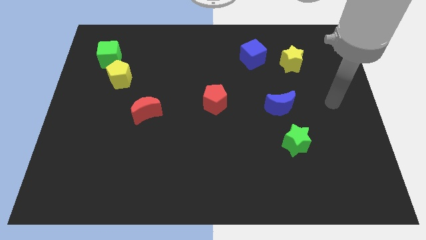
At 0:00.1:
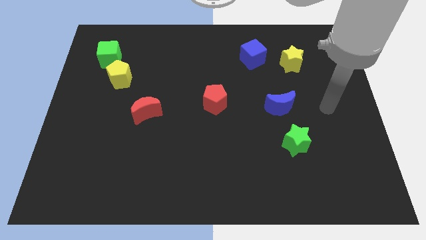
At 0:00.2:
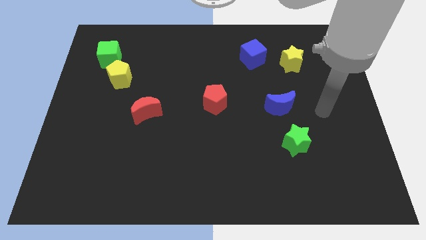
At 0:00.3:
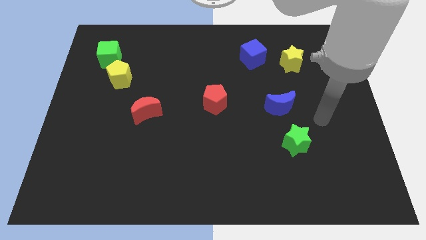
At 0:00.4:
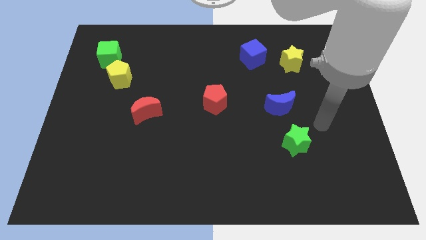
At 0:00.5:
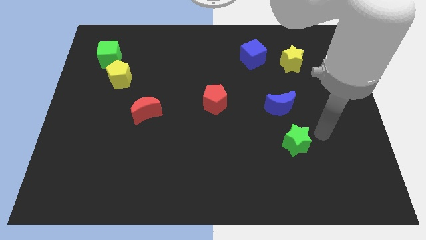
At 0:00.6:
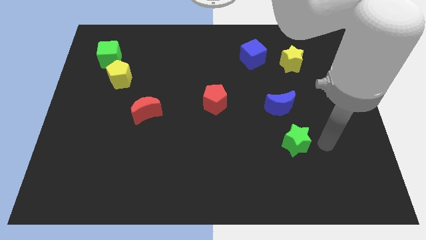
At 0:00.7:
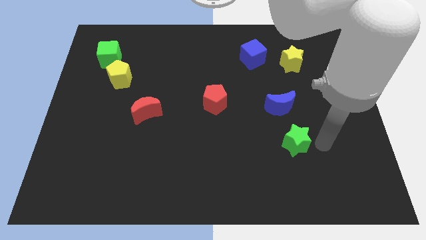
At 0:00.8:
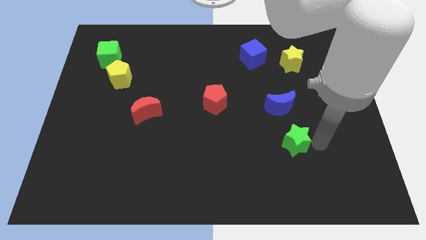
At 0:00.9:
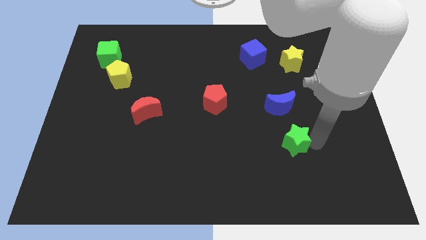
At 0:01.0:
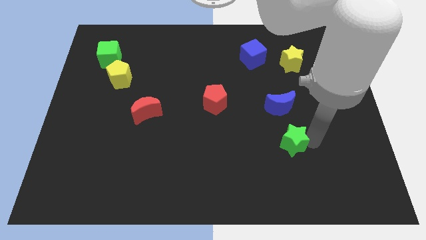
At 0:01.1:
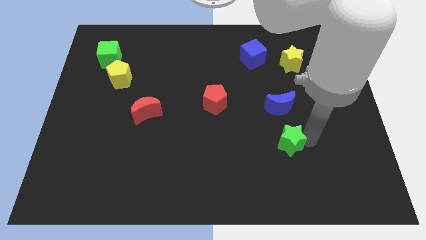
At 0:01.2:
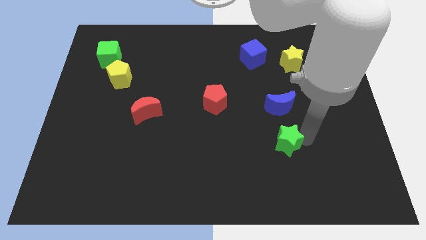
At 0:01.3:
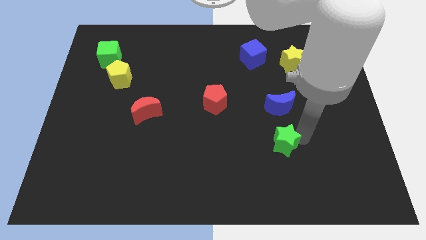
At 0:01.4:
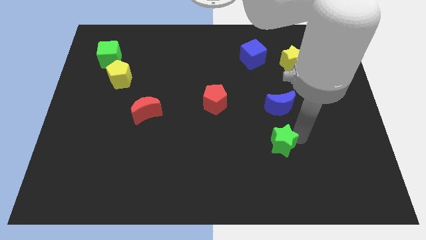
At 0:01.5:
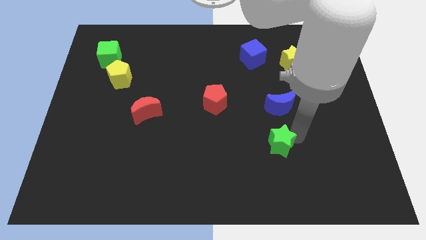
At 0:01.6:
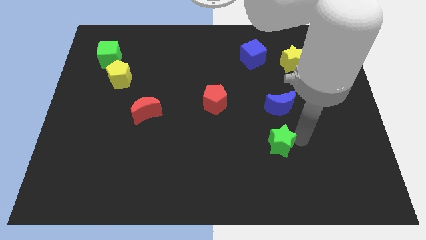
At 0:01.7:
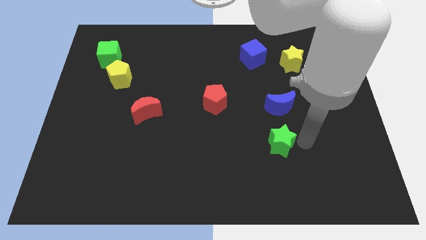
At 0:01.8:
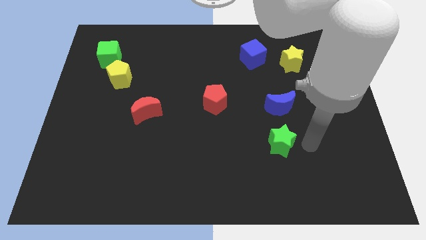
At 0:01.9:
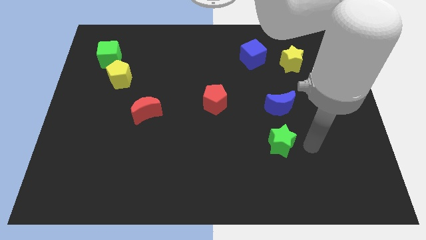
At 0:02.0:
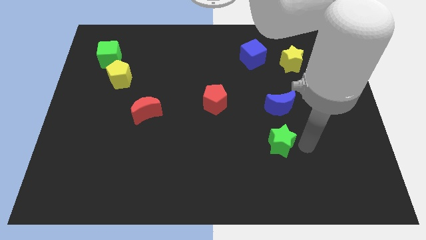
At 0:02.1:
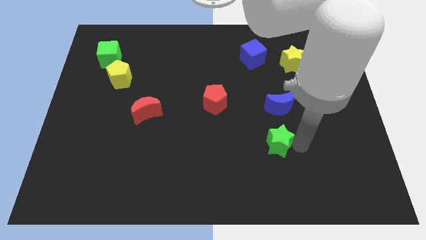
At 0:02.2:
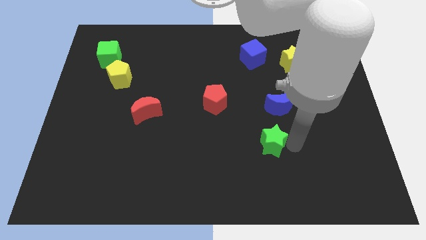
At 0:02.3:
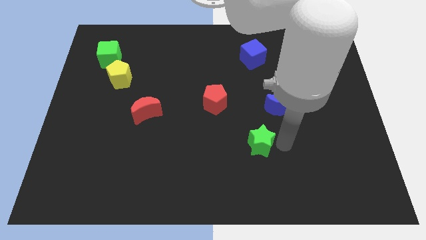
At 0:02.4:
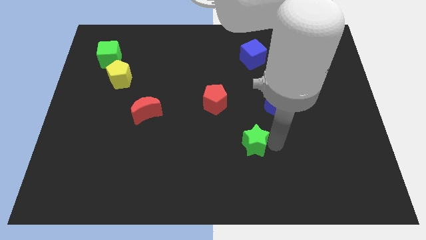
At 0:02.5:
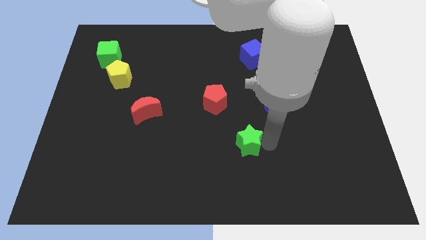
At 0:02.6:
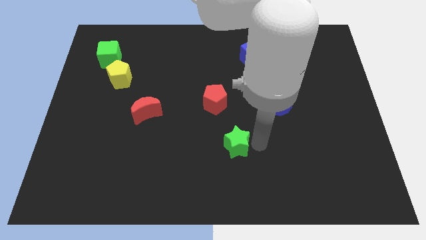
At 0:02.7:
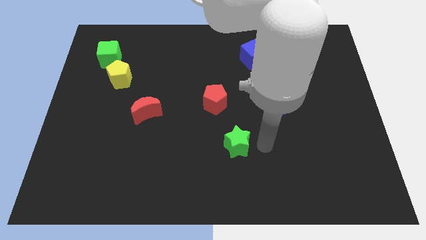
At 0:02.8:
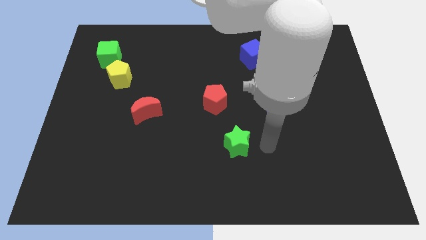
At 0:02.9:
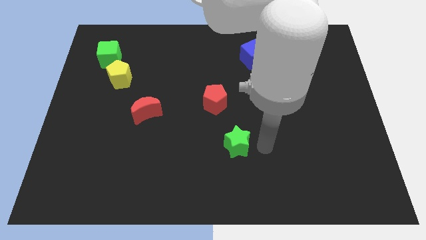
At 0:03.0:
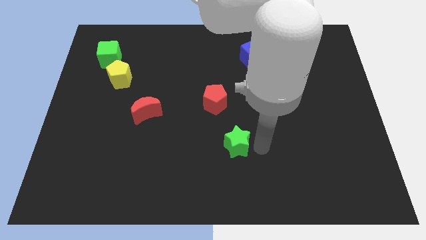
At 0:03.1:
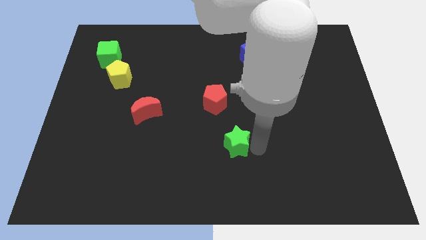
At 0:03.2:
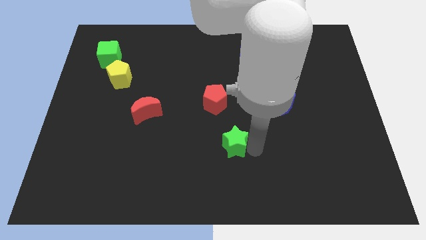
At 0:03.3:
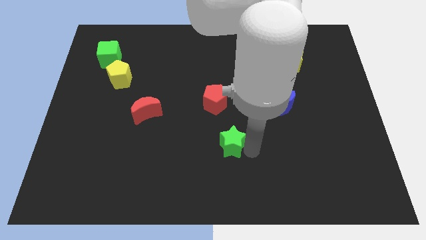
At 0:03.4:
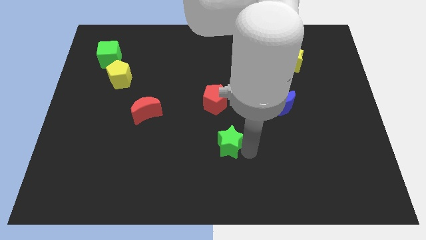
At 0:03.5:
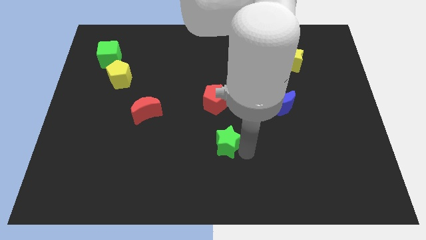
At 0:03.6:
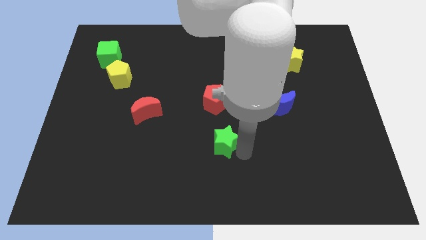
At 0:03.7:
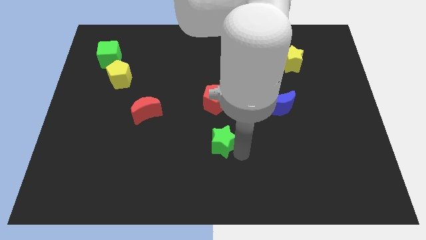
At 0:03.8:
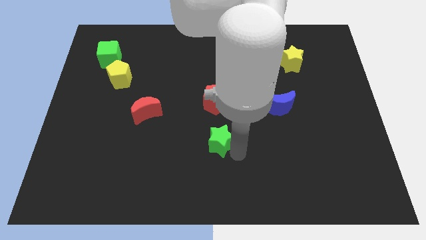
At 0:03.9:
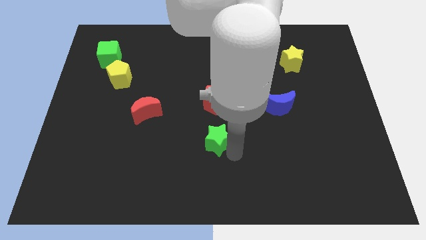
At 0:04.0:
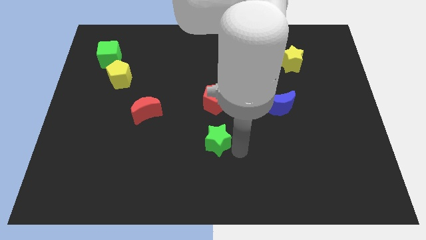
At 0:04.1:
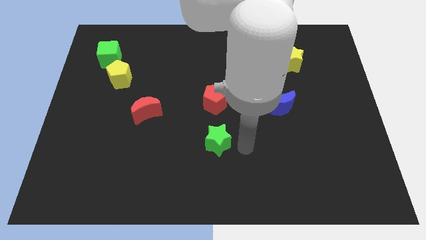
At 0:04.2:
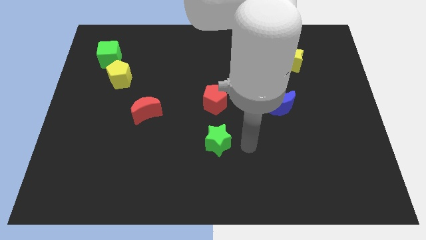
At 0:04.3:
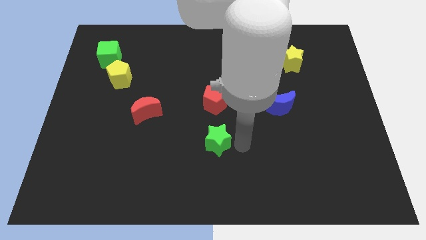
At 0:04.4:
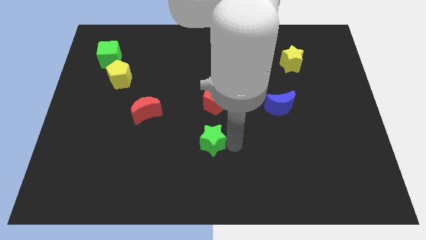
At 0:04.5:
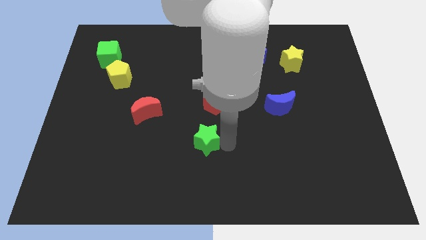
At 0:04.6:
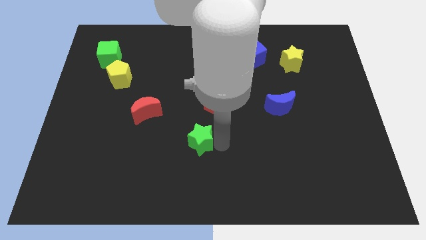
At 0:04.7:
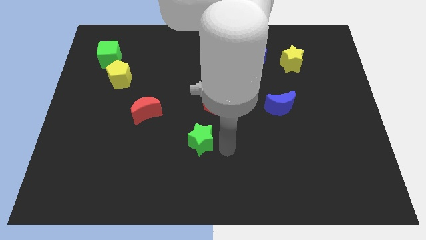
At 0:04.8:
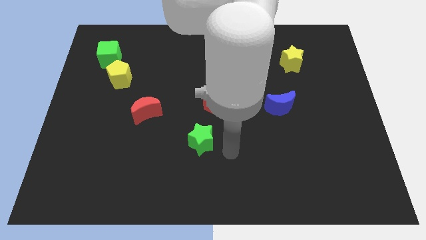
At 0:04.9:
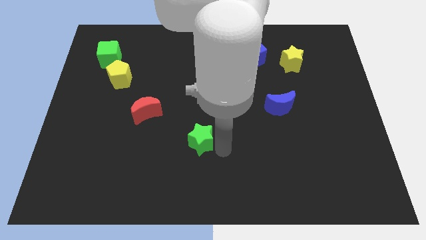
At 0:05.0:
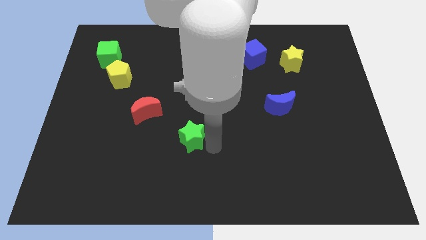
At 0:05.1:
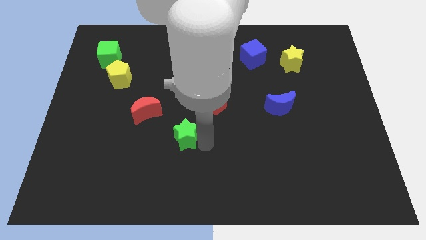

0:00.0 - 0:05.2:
slide the green star to the bottom right side of the red moon

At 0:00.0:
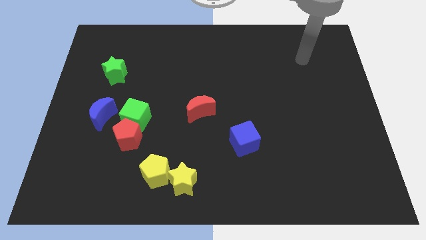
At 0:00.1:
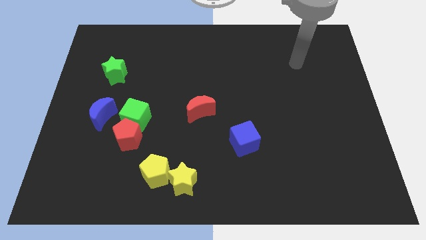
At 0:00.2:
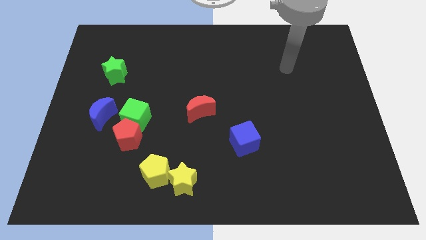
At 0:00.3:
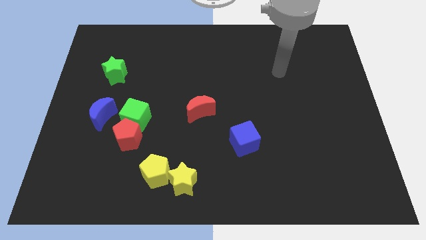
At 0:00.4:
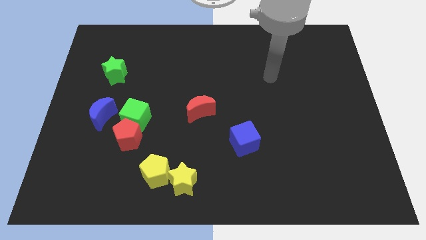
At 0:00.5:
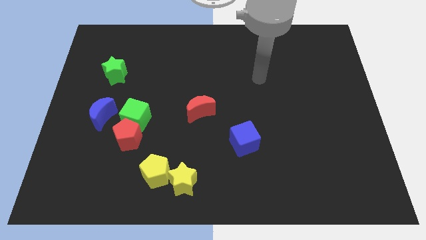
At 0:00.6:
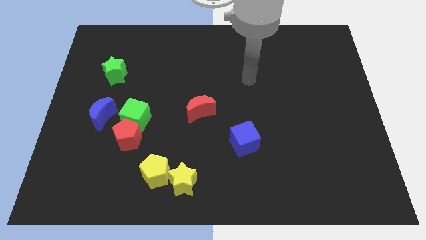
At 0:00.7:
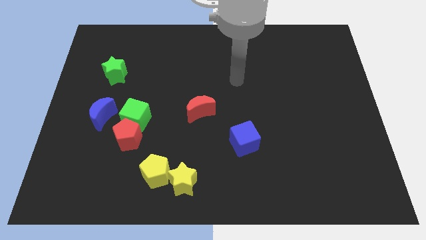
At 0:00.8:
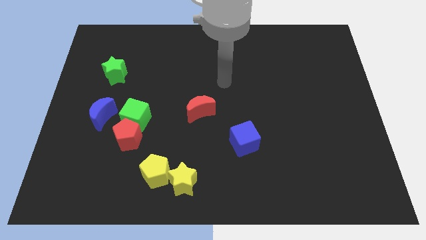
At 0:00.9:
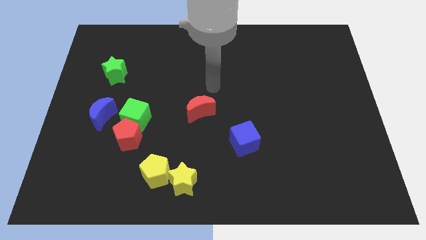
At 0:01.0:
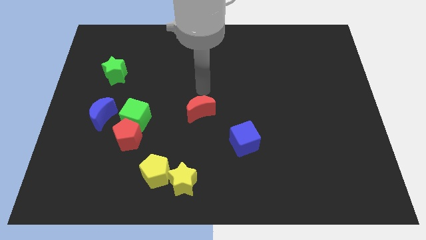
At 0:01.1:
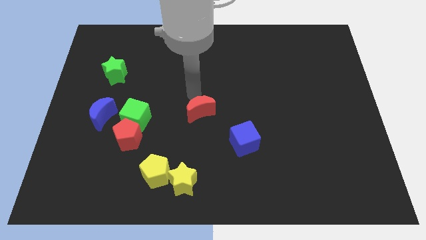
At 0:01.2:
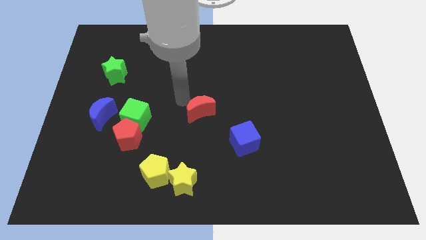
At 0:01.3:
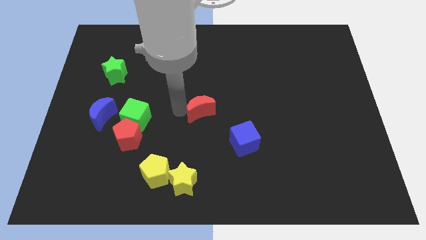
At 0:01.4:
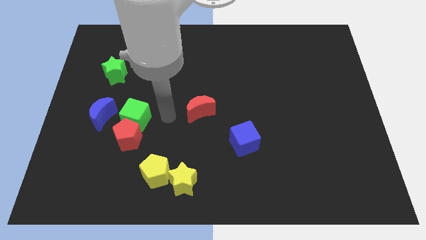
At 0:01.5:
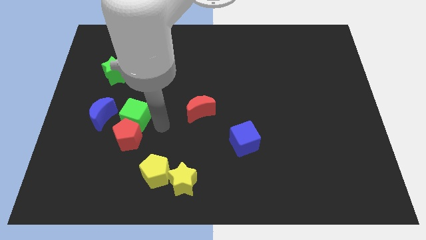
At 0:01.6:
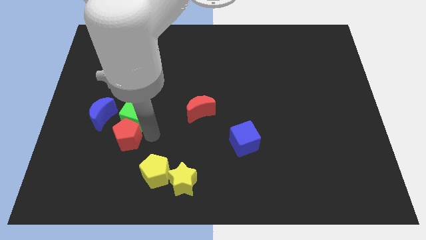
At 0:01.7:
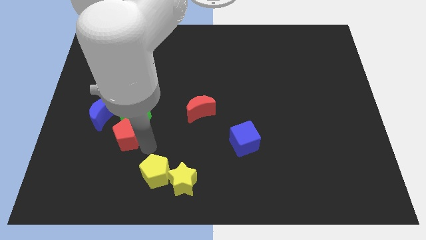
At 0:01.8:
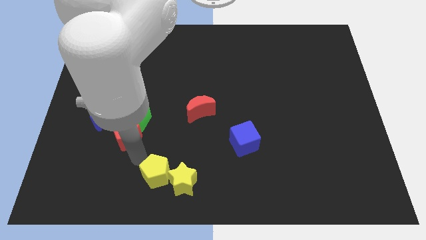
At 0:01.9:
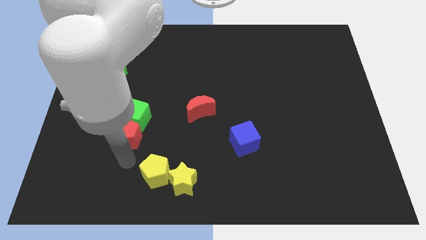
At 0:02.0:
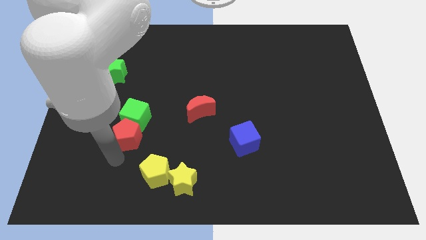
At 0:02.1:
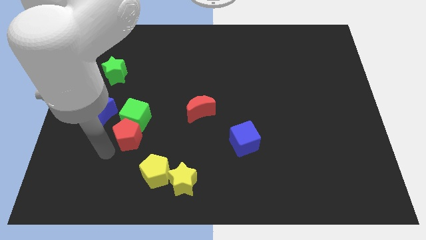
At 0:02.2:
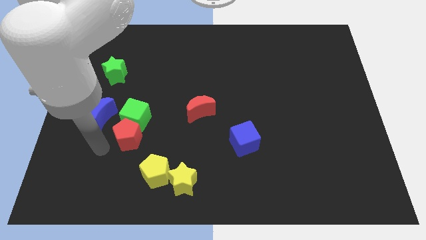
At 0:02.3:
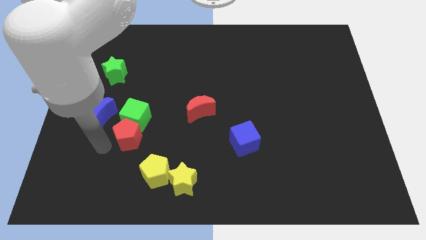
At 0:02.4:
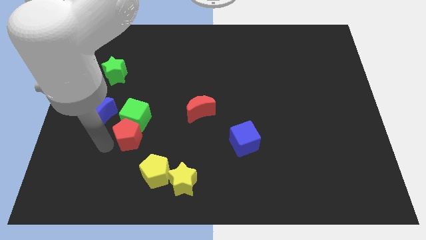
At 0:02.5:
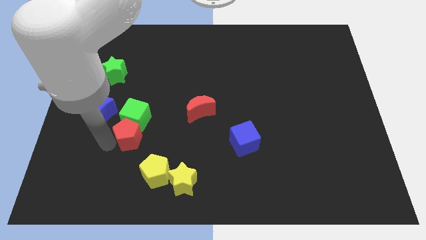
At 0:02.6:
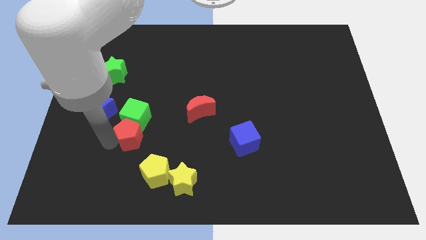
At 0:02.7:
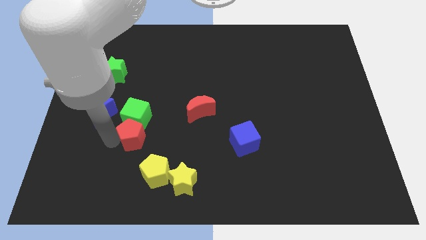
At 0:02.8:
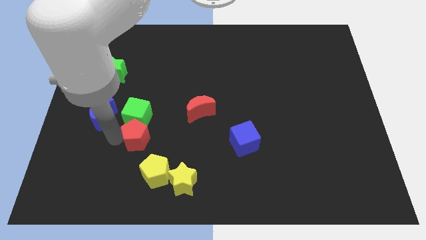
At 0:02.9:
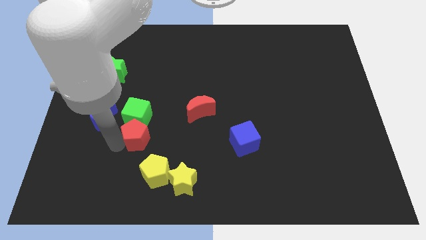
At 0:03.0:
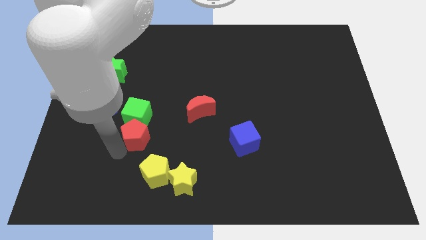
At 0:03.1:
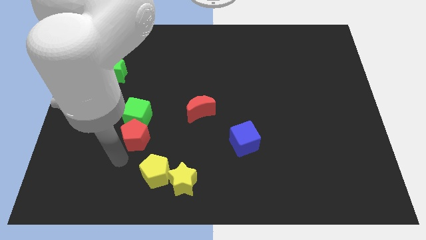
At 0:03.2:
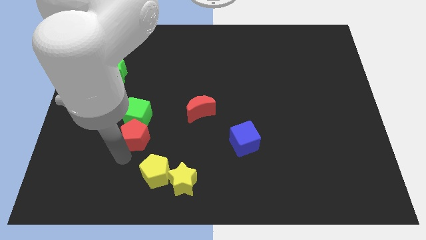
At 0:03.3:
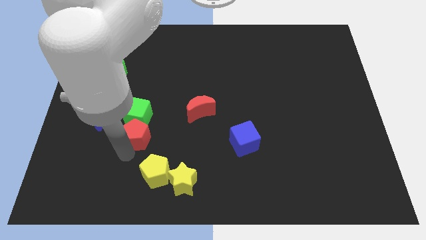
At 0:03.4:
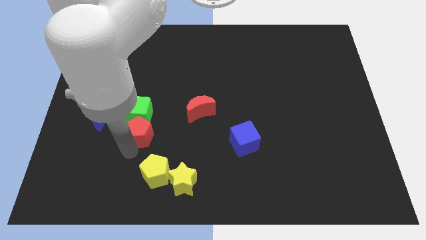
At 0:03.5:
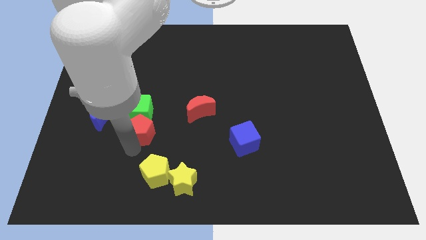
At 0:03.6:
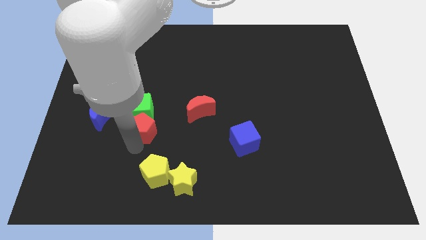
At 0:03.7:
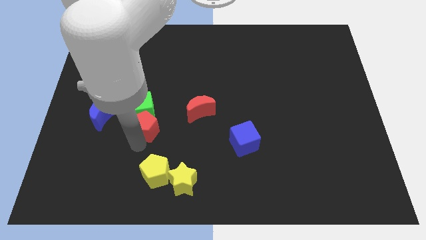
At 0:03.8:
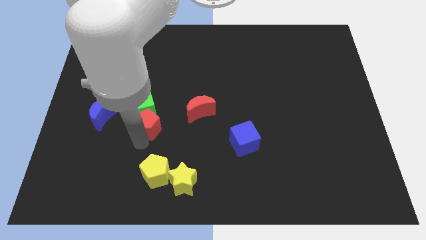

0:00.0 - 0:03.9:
push the red pentagon just left of the red moon
